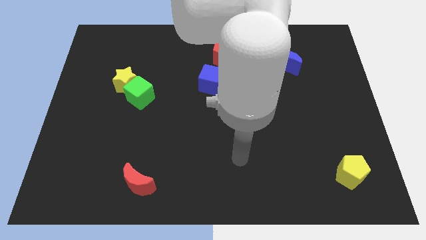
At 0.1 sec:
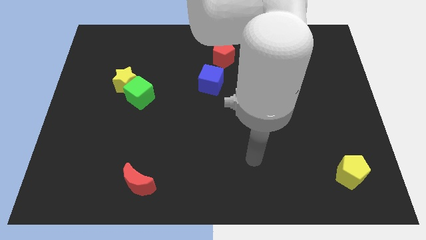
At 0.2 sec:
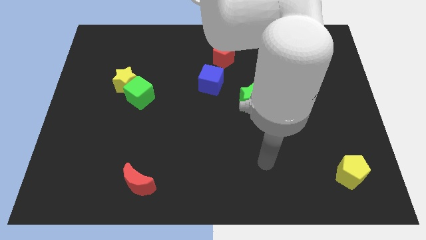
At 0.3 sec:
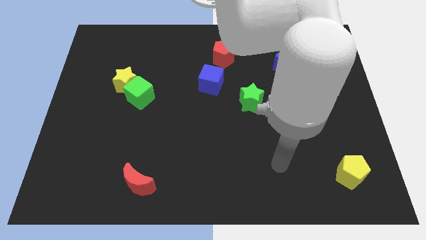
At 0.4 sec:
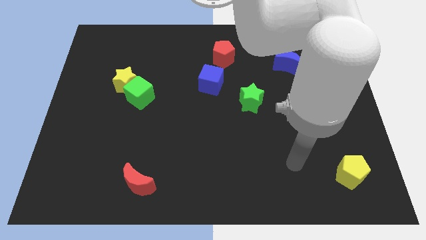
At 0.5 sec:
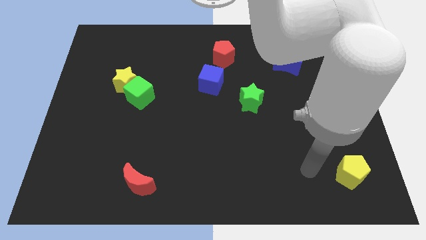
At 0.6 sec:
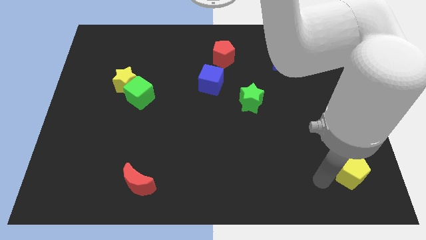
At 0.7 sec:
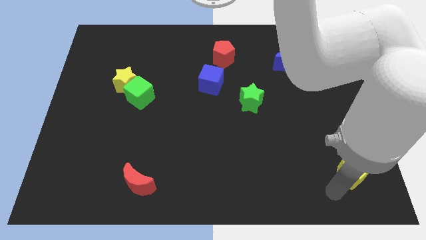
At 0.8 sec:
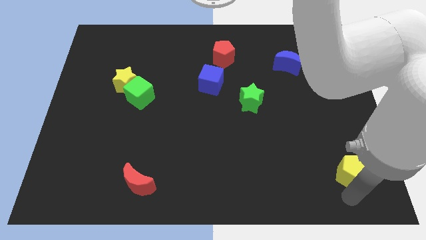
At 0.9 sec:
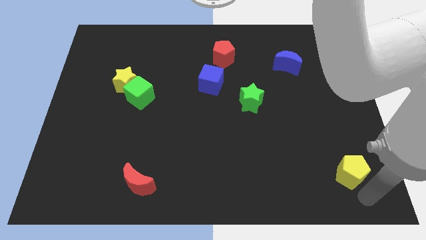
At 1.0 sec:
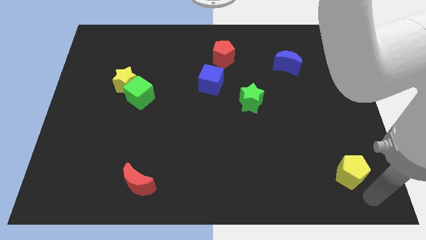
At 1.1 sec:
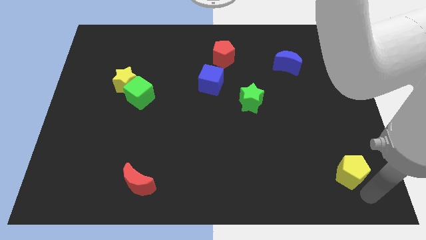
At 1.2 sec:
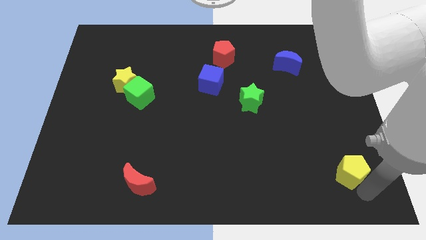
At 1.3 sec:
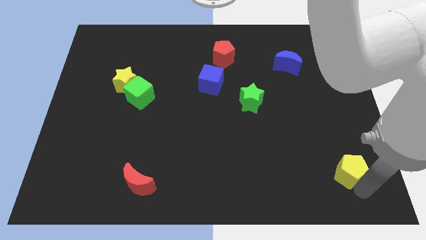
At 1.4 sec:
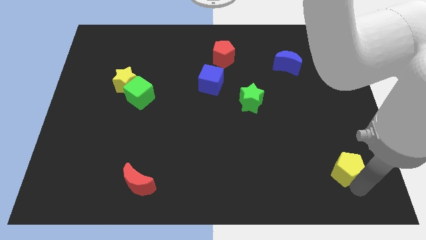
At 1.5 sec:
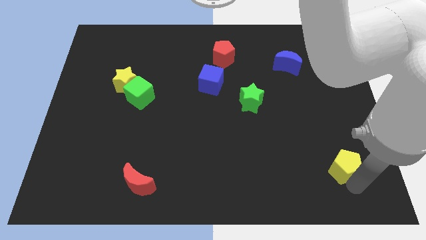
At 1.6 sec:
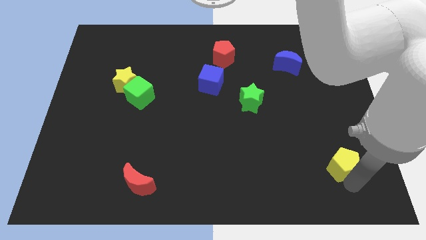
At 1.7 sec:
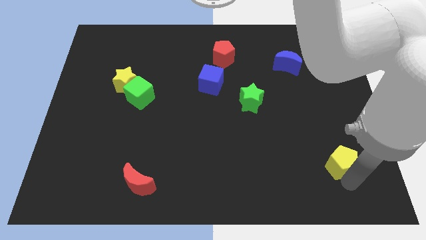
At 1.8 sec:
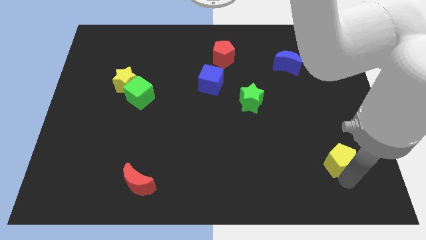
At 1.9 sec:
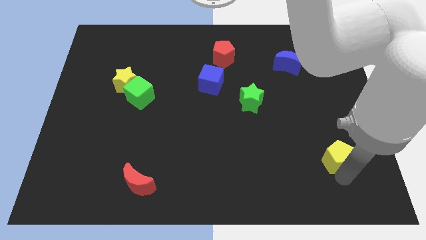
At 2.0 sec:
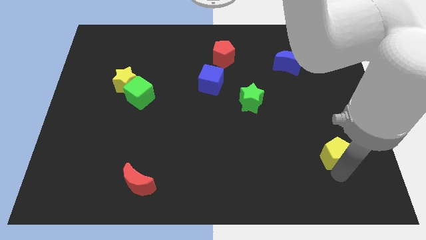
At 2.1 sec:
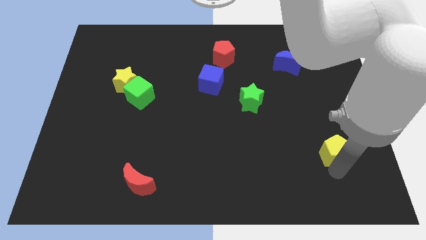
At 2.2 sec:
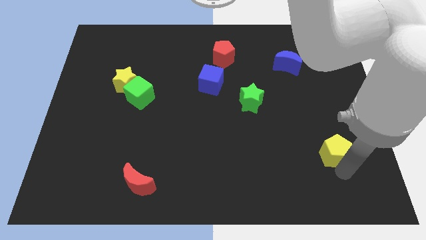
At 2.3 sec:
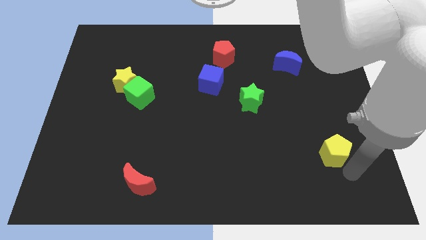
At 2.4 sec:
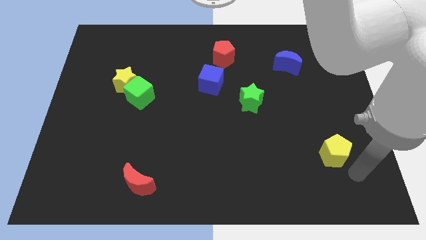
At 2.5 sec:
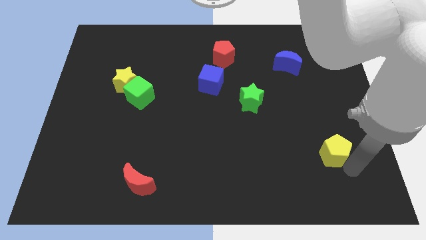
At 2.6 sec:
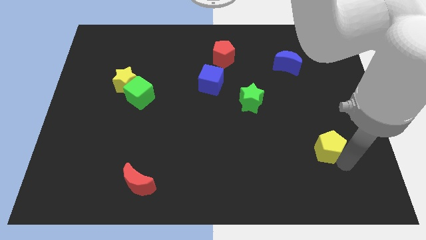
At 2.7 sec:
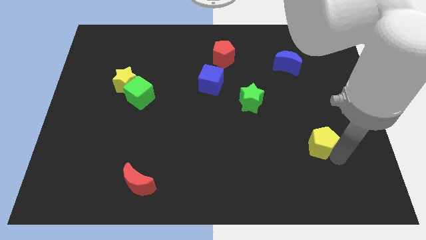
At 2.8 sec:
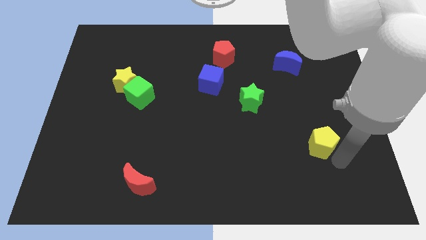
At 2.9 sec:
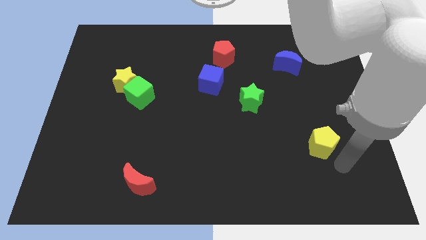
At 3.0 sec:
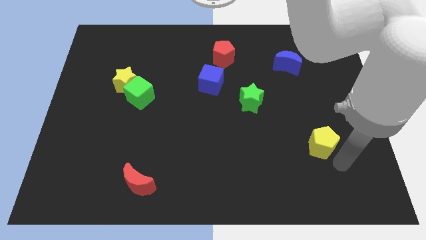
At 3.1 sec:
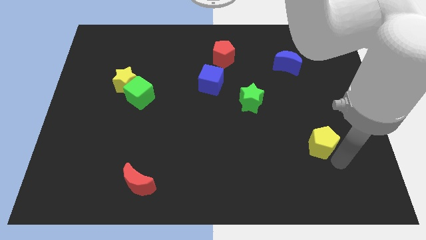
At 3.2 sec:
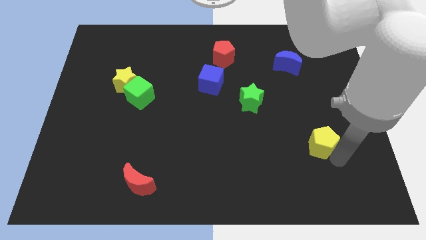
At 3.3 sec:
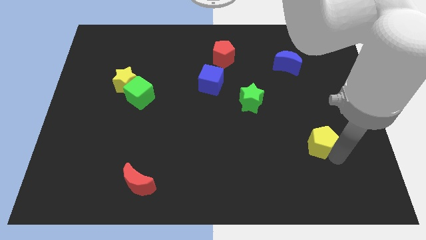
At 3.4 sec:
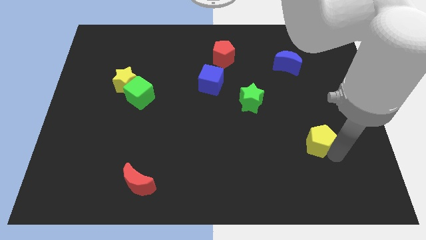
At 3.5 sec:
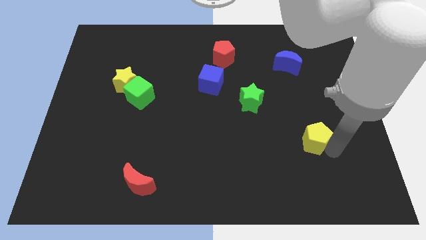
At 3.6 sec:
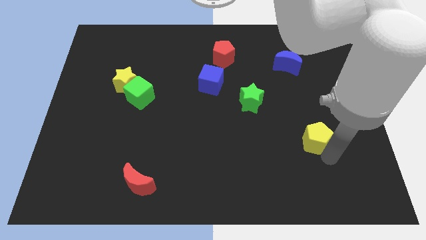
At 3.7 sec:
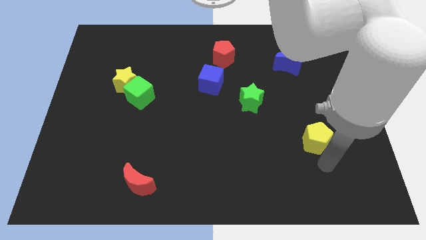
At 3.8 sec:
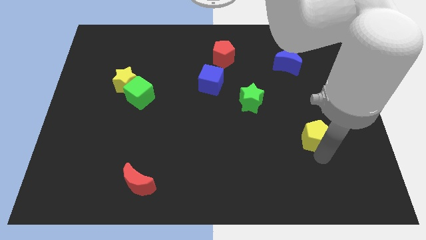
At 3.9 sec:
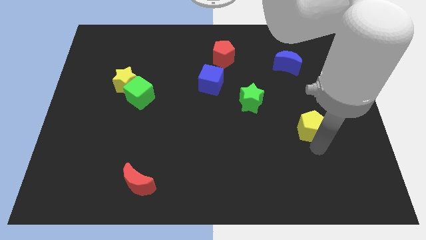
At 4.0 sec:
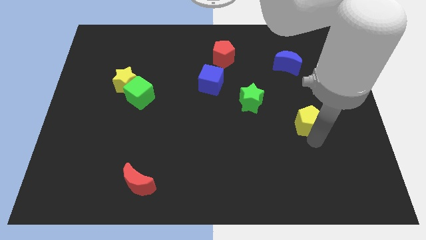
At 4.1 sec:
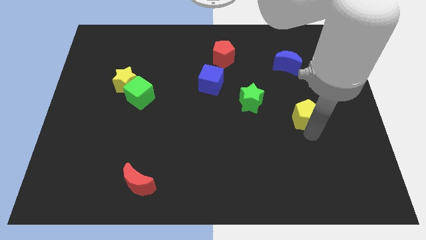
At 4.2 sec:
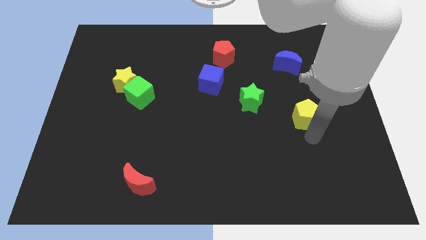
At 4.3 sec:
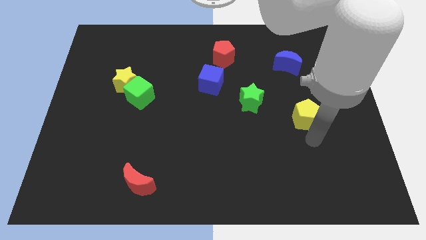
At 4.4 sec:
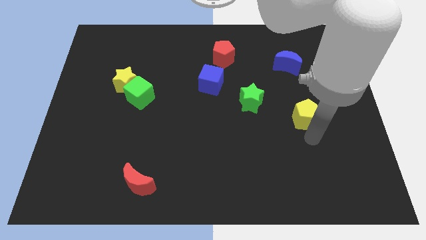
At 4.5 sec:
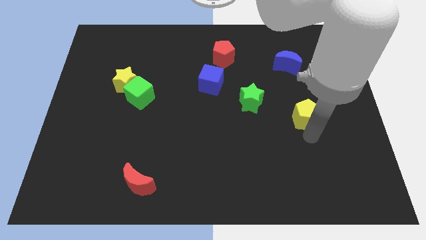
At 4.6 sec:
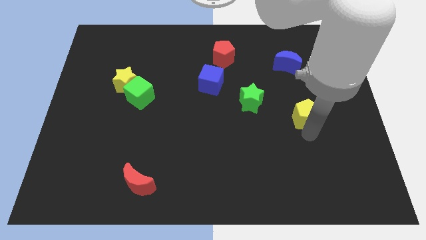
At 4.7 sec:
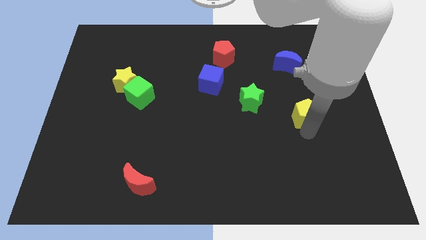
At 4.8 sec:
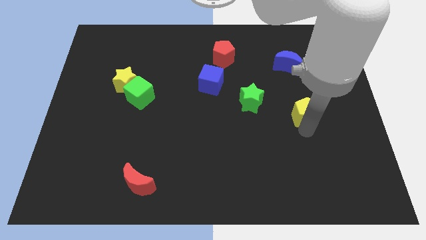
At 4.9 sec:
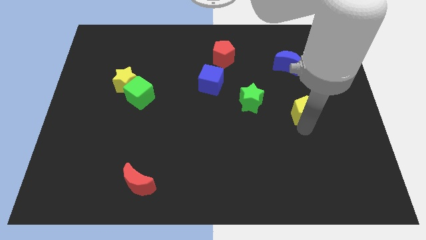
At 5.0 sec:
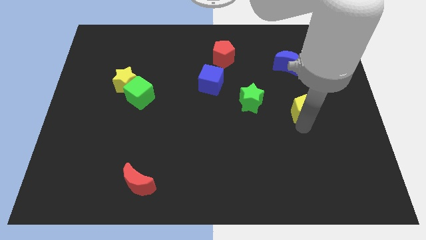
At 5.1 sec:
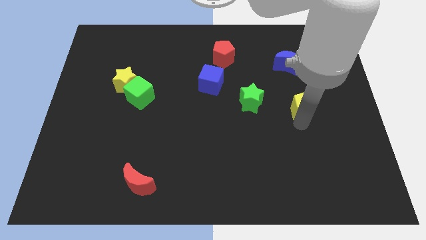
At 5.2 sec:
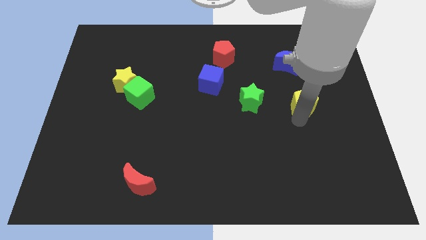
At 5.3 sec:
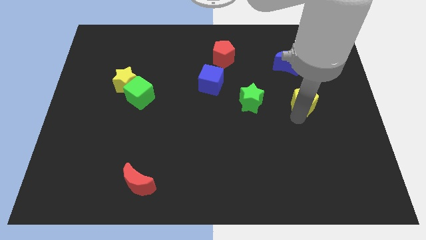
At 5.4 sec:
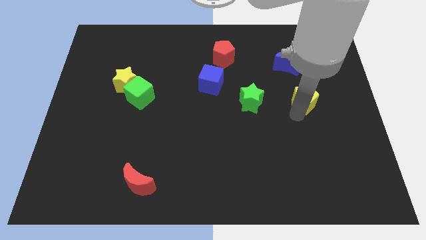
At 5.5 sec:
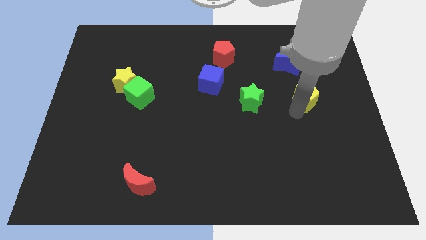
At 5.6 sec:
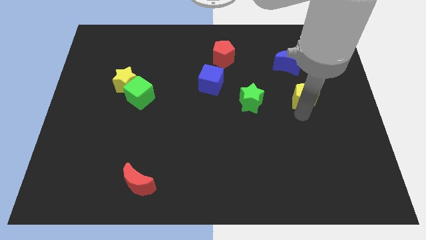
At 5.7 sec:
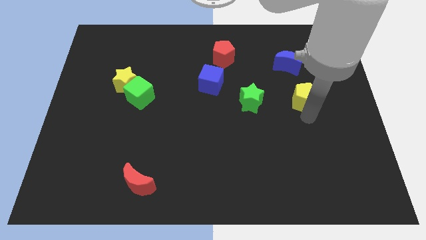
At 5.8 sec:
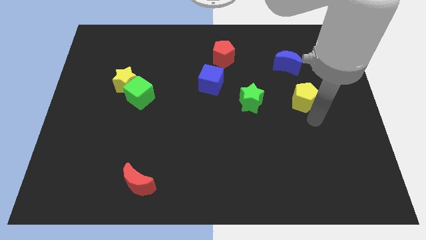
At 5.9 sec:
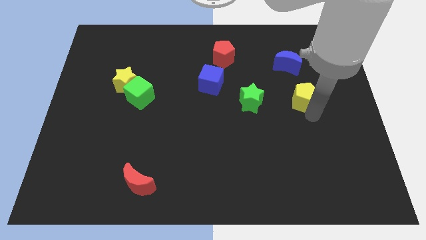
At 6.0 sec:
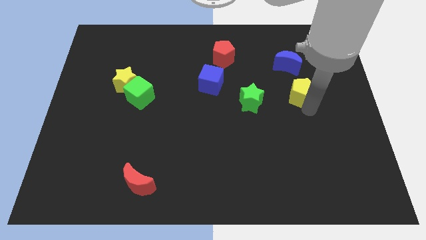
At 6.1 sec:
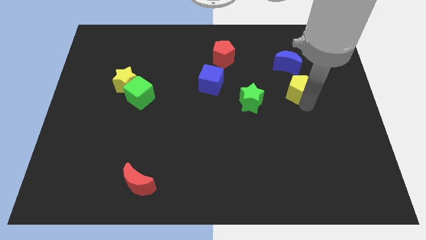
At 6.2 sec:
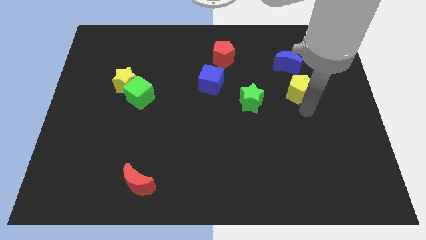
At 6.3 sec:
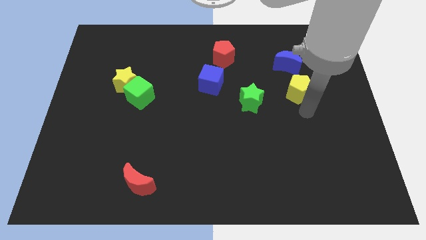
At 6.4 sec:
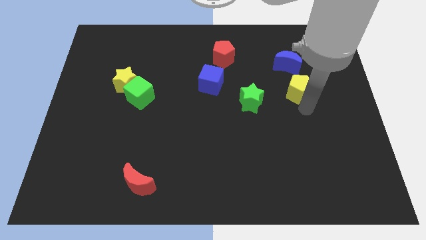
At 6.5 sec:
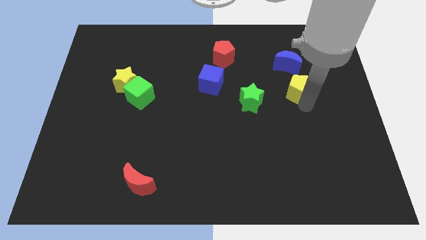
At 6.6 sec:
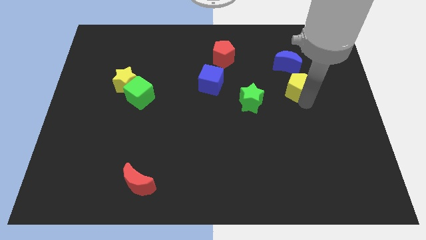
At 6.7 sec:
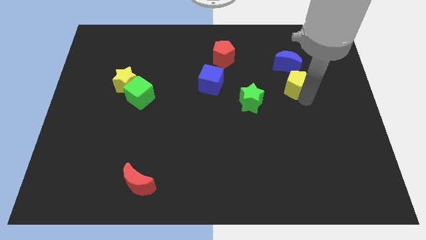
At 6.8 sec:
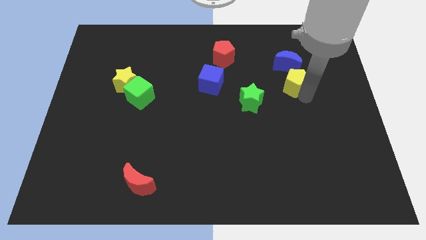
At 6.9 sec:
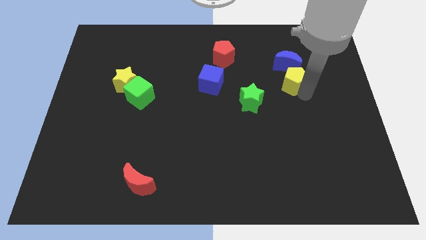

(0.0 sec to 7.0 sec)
slide the yellow pentagon towards the blue moon
